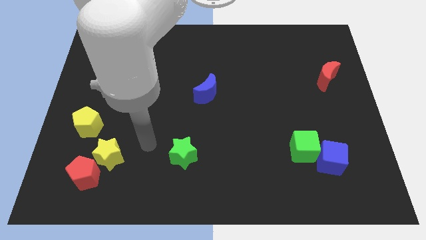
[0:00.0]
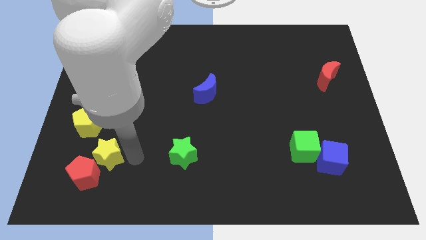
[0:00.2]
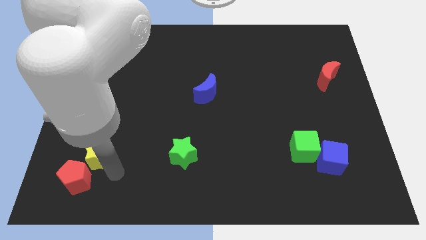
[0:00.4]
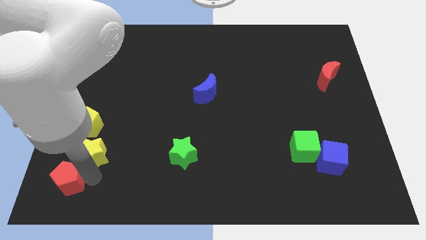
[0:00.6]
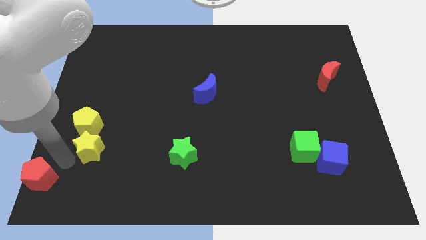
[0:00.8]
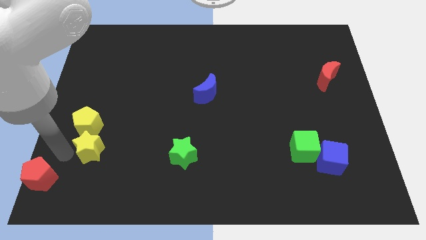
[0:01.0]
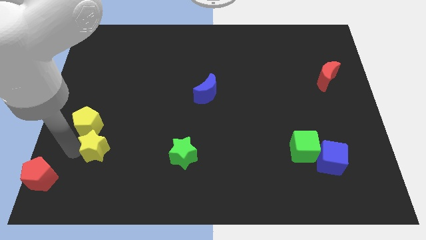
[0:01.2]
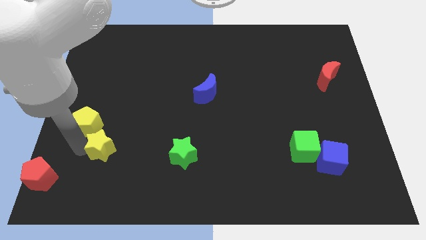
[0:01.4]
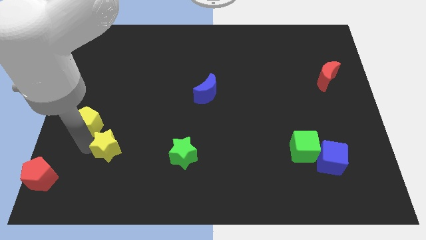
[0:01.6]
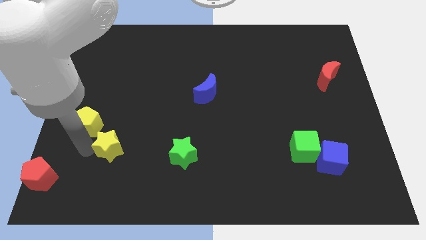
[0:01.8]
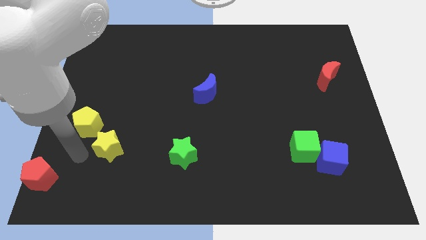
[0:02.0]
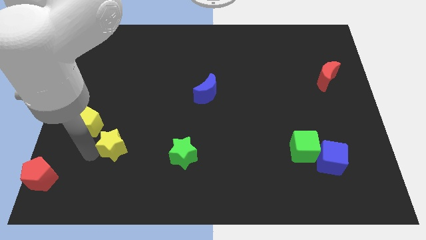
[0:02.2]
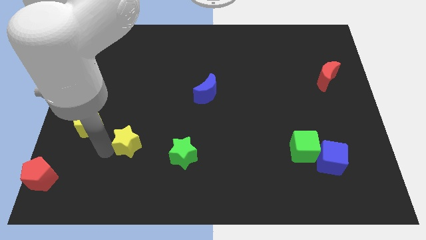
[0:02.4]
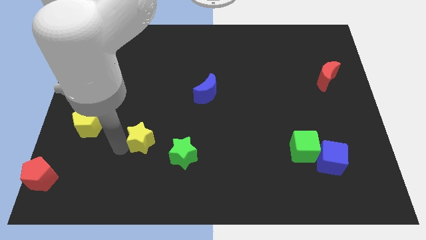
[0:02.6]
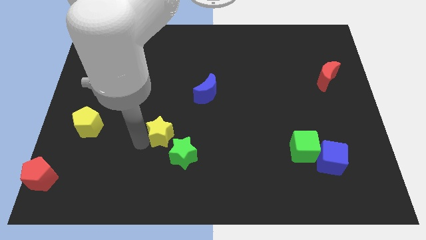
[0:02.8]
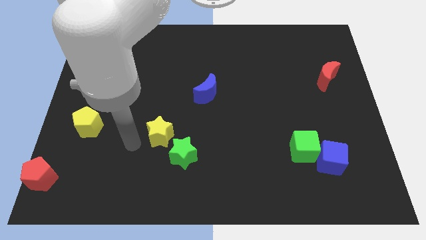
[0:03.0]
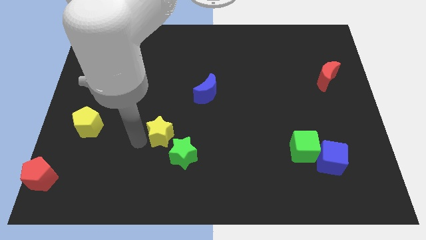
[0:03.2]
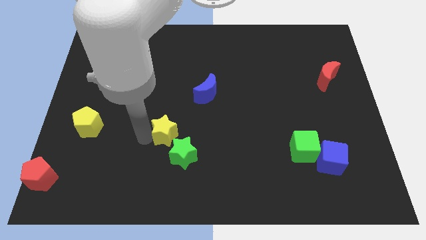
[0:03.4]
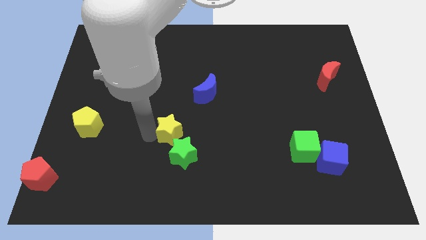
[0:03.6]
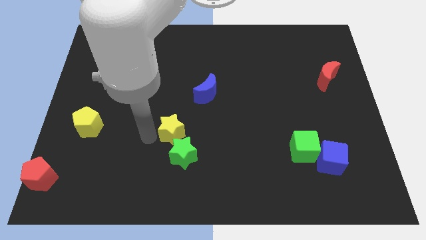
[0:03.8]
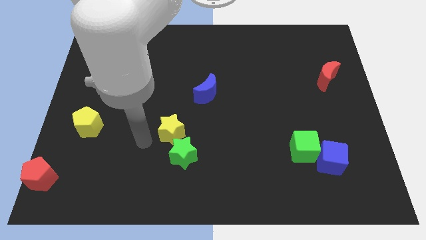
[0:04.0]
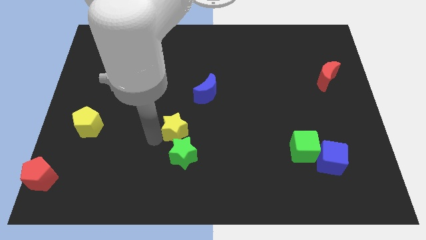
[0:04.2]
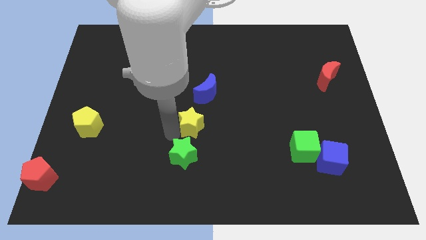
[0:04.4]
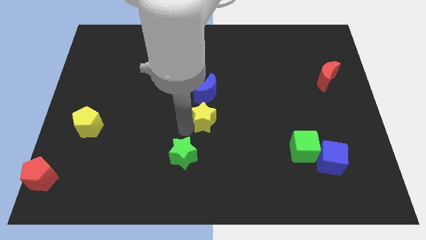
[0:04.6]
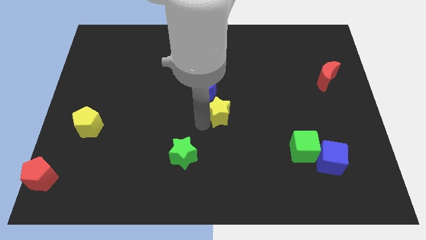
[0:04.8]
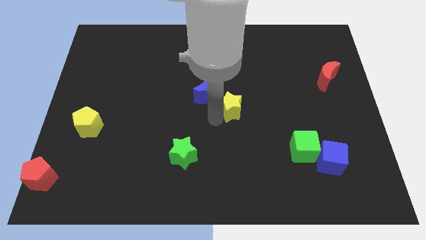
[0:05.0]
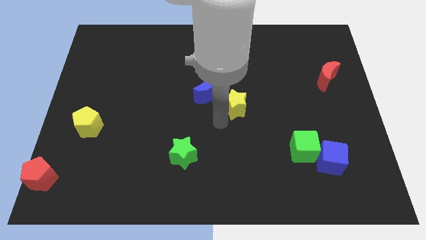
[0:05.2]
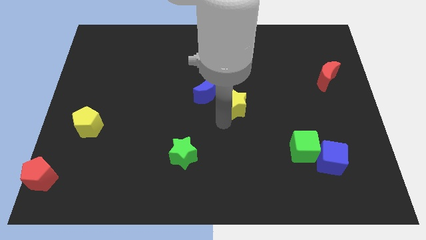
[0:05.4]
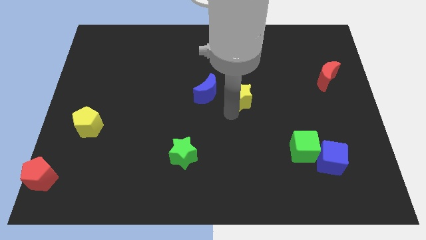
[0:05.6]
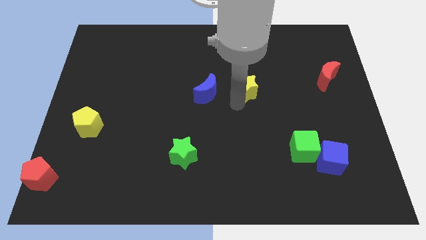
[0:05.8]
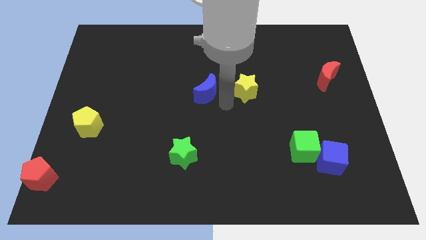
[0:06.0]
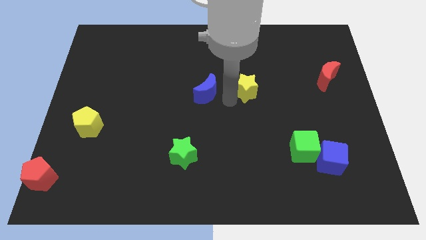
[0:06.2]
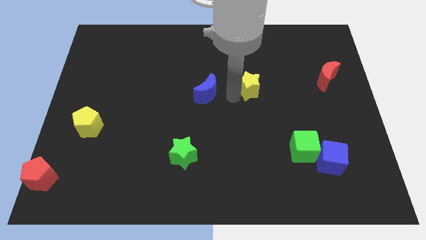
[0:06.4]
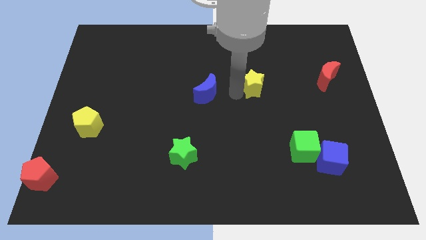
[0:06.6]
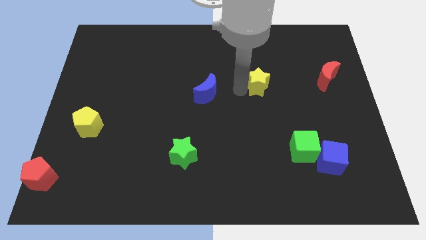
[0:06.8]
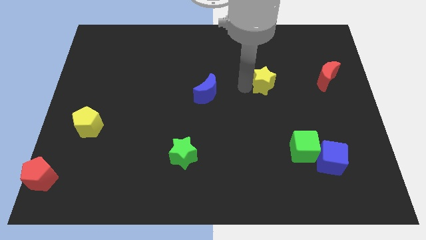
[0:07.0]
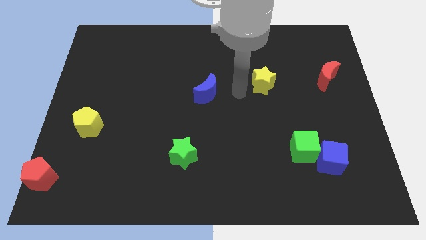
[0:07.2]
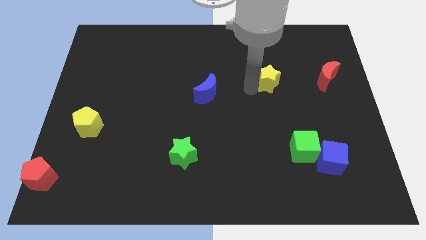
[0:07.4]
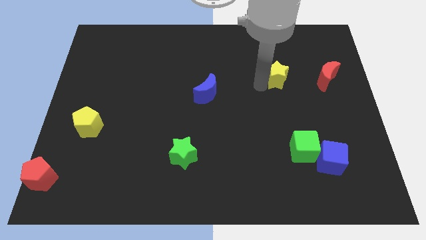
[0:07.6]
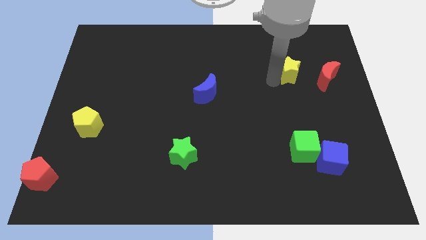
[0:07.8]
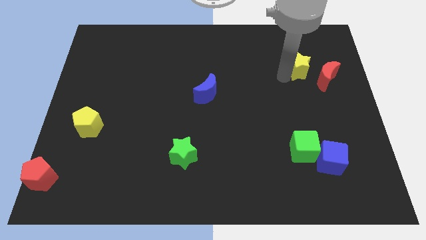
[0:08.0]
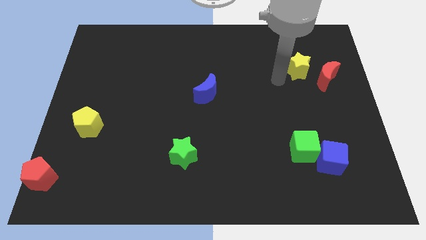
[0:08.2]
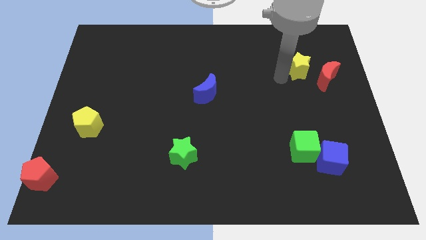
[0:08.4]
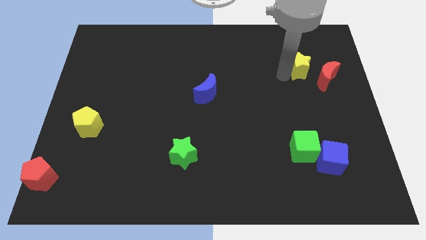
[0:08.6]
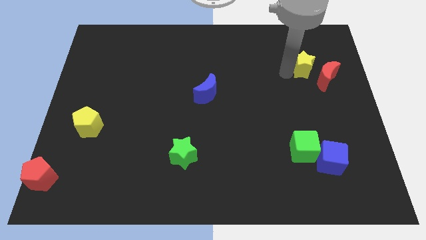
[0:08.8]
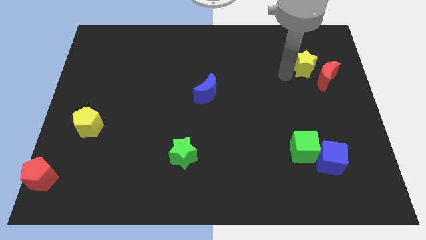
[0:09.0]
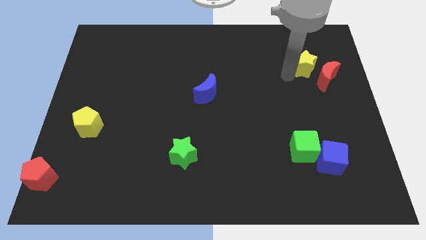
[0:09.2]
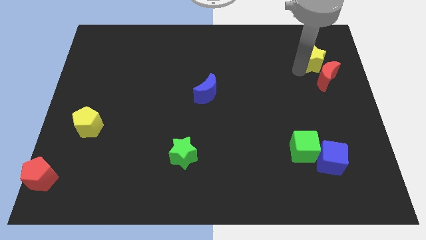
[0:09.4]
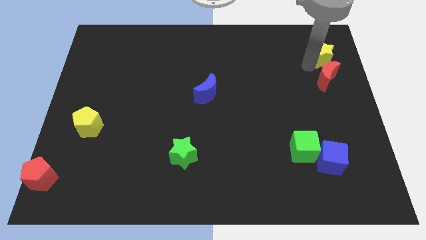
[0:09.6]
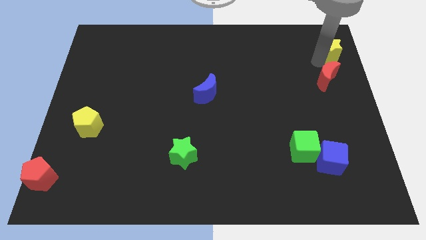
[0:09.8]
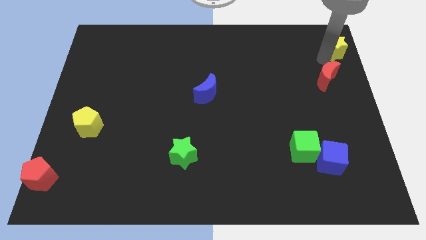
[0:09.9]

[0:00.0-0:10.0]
put the yellow star to the top right corner
